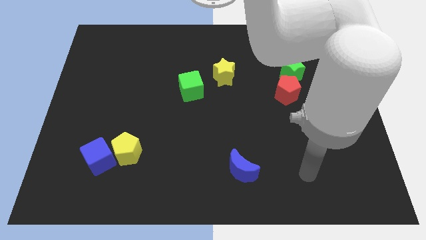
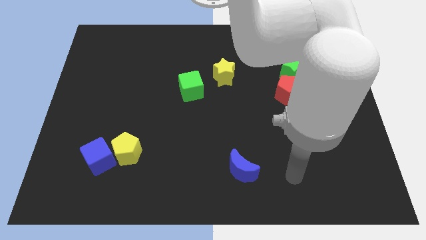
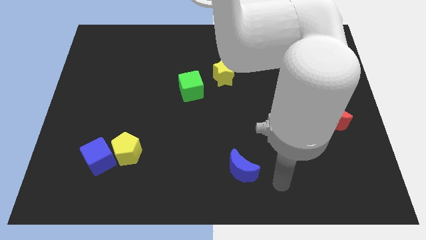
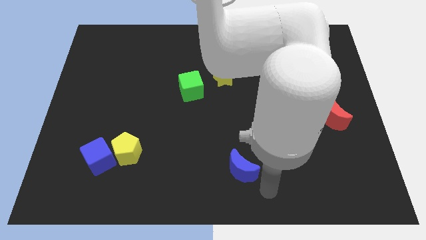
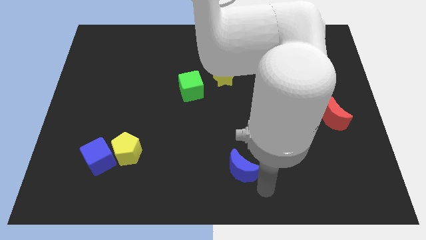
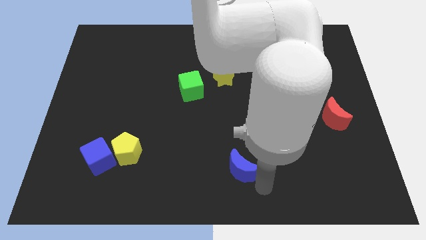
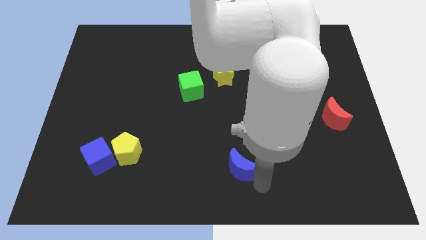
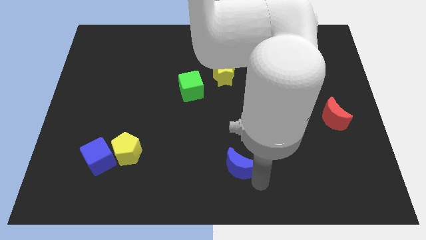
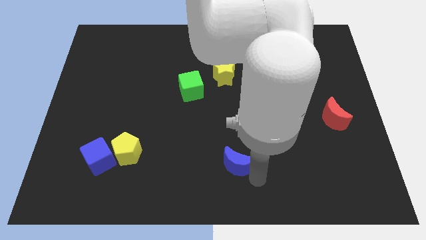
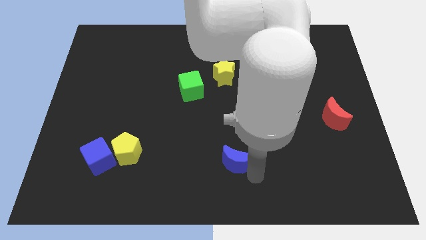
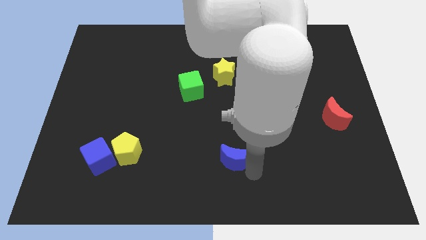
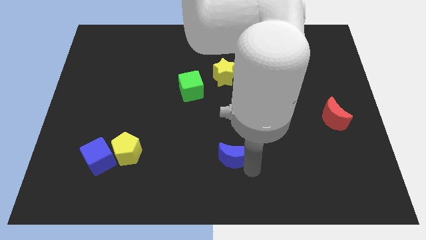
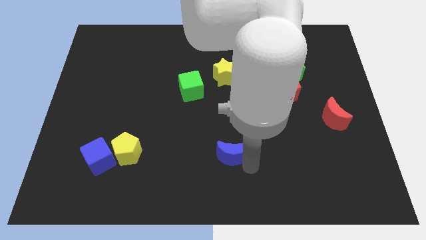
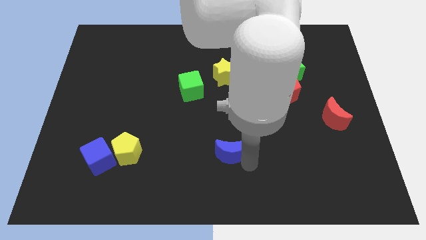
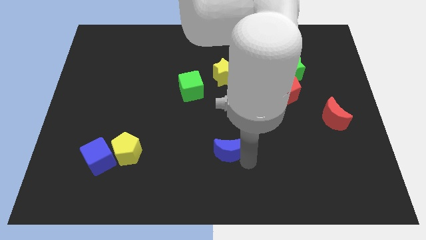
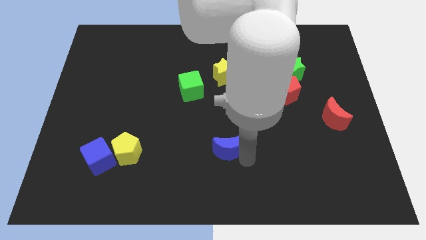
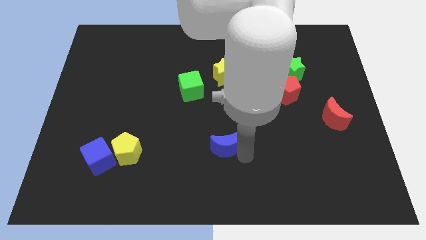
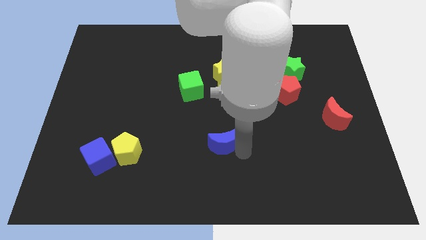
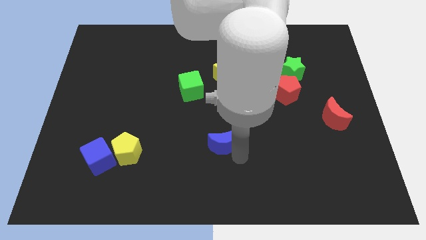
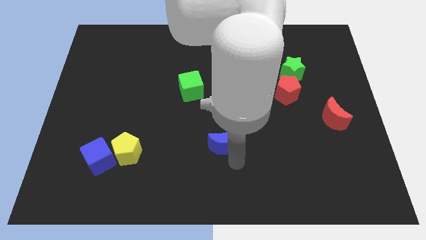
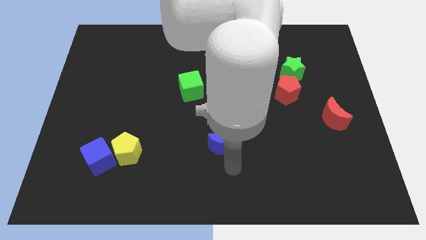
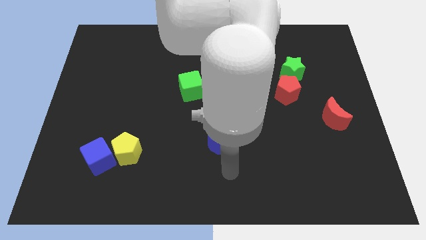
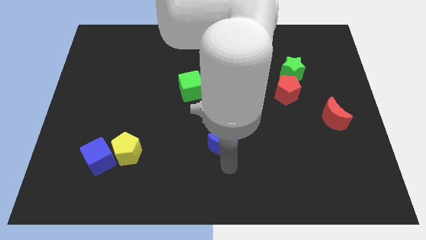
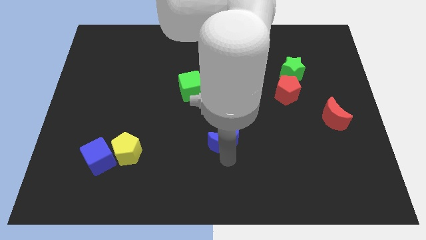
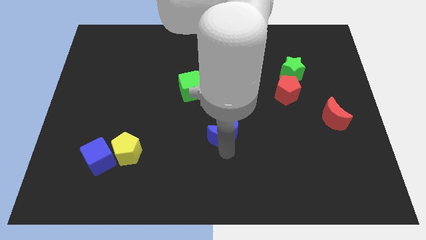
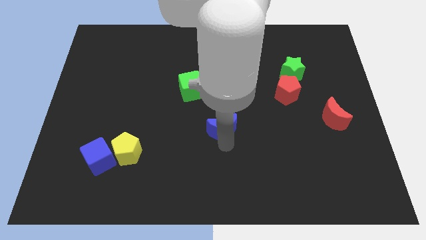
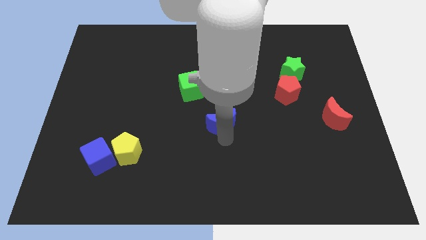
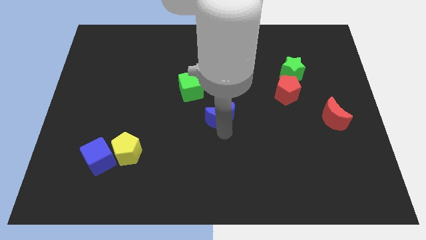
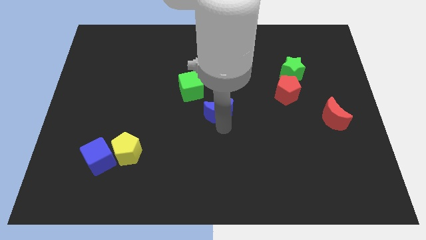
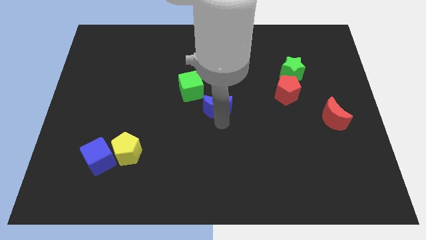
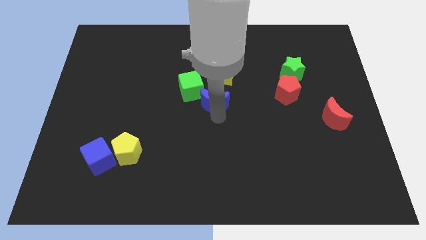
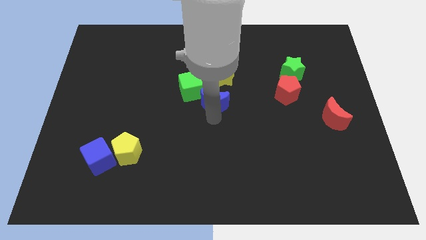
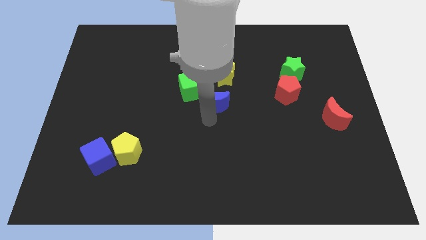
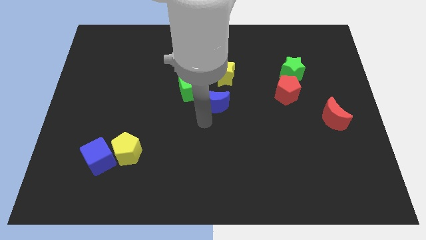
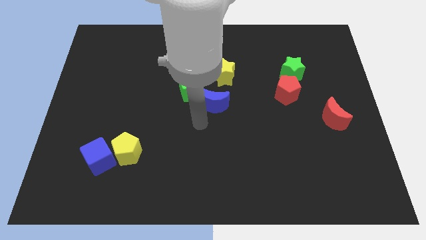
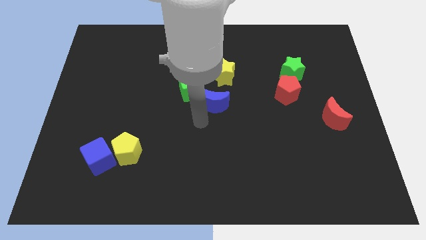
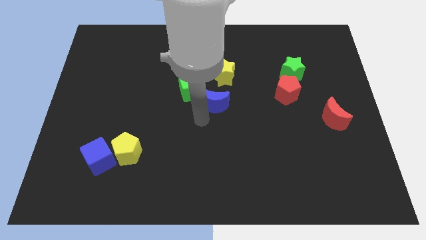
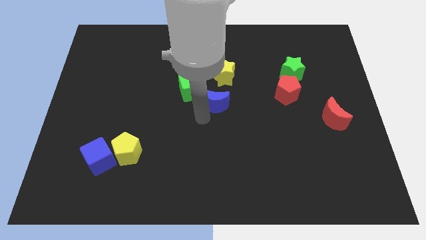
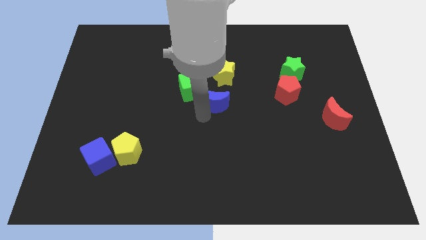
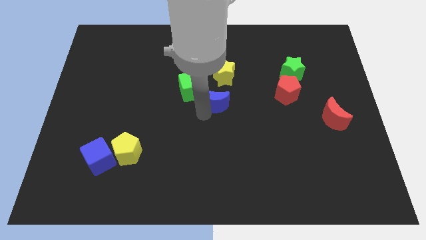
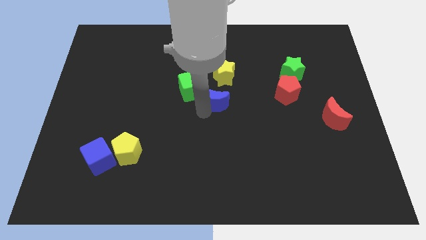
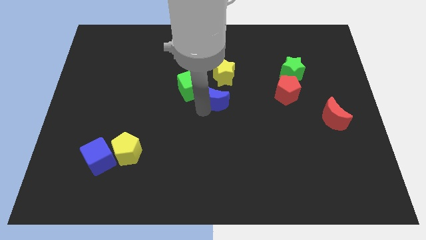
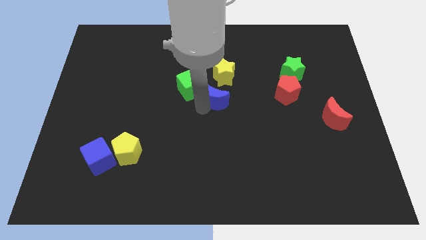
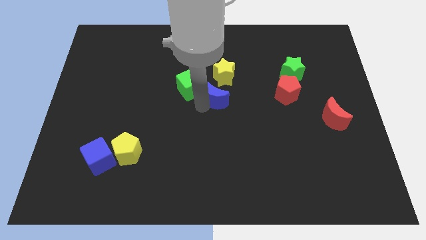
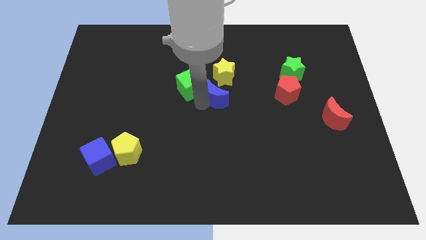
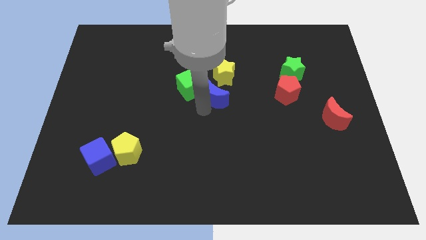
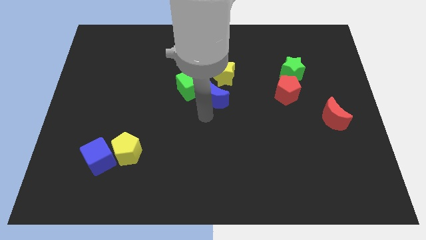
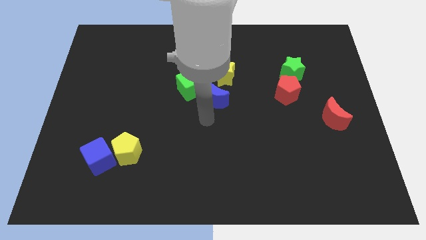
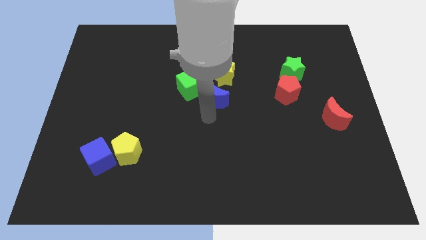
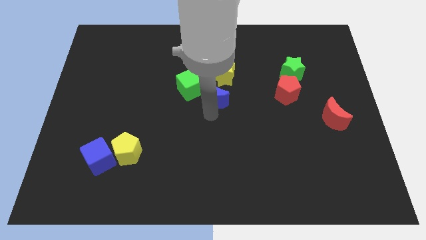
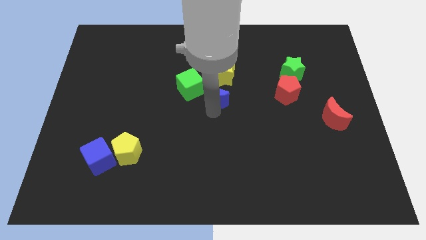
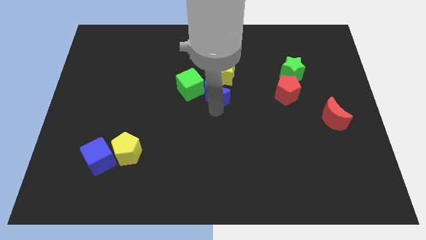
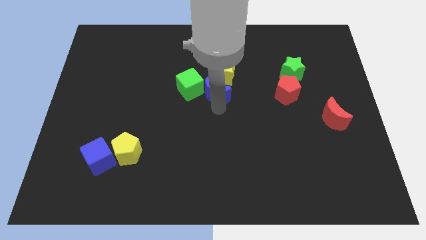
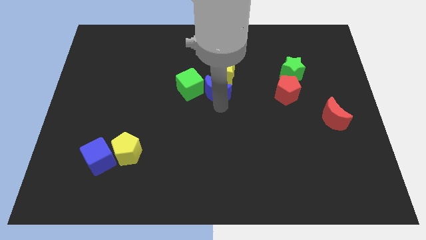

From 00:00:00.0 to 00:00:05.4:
put the blue moon next to the yellow star

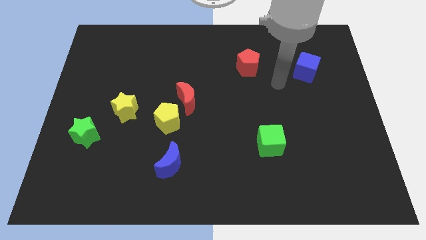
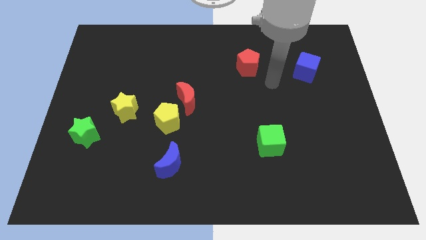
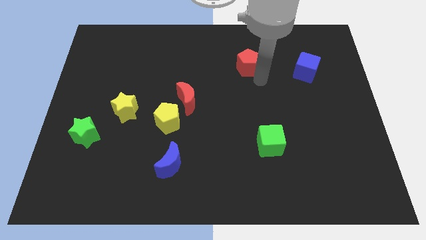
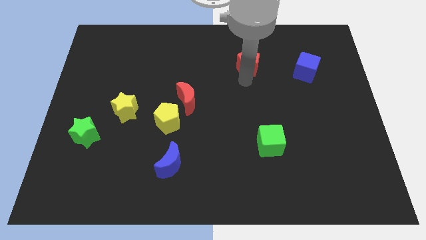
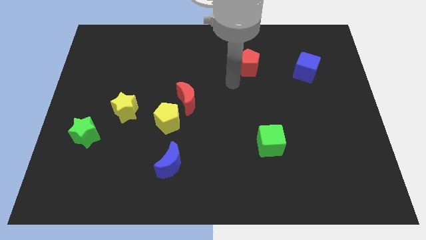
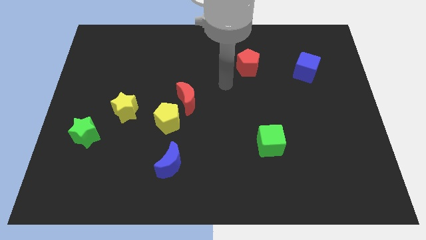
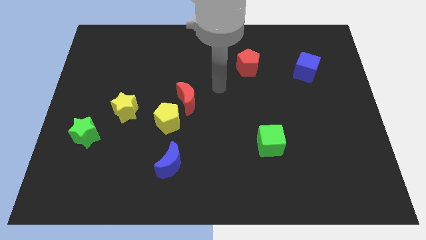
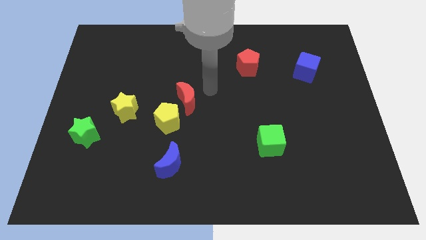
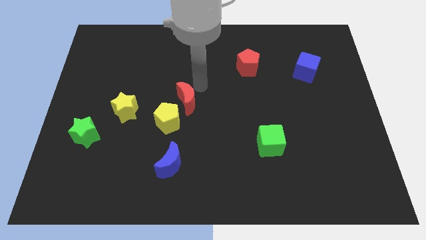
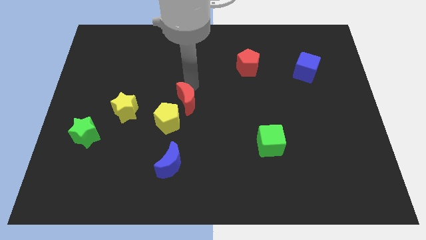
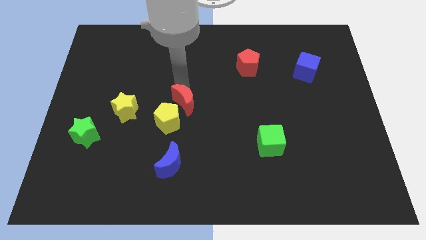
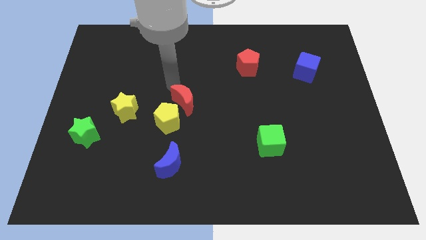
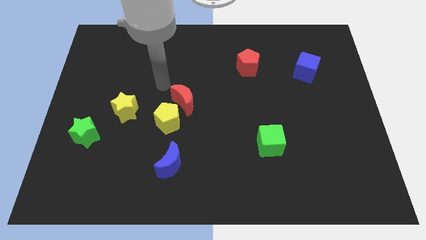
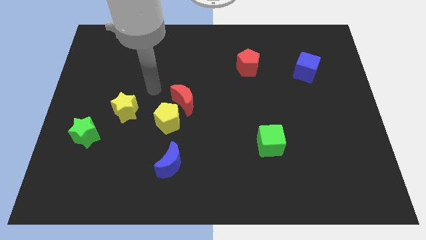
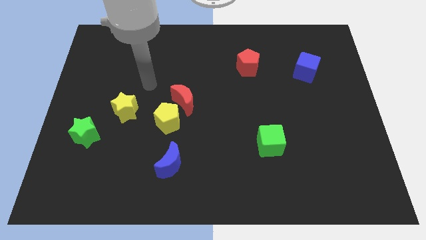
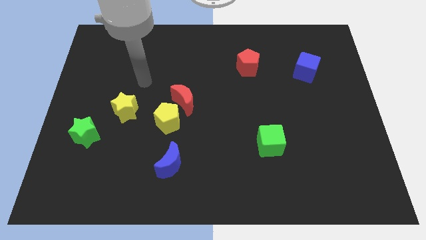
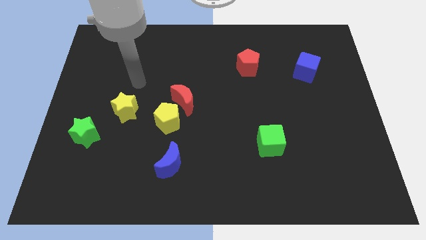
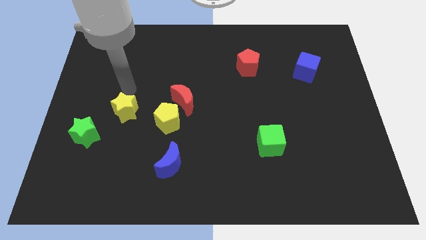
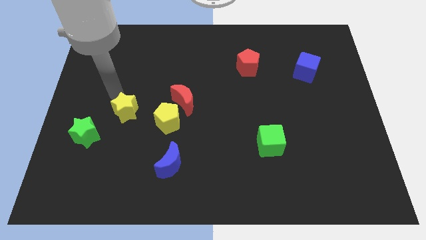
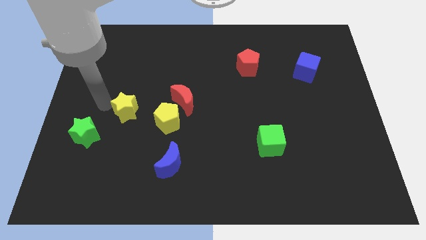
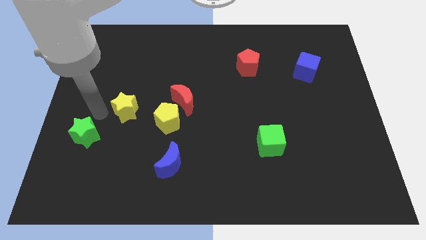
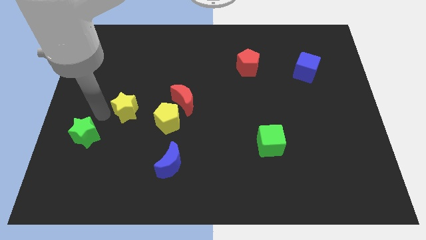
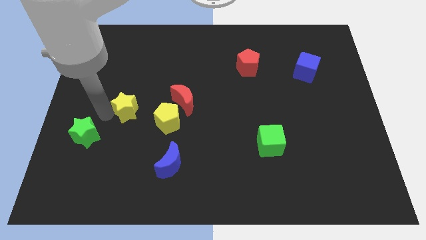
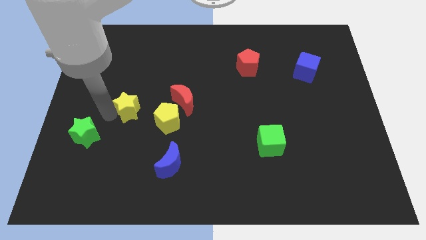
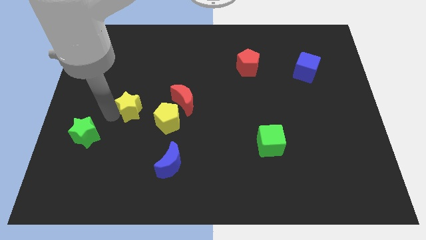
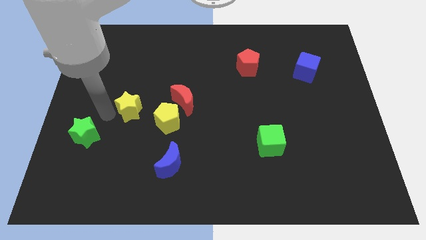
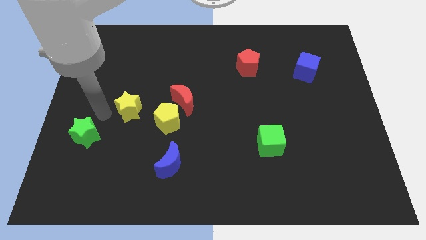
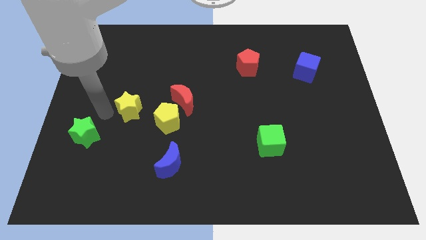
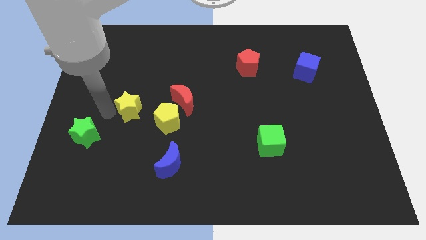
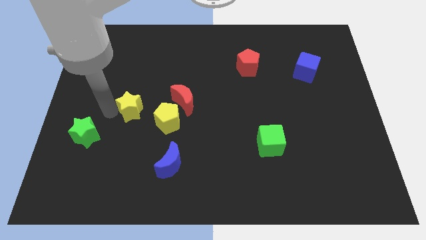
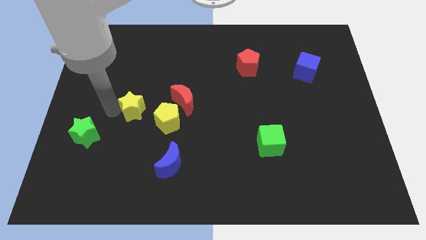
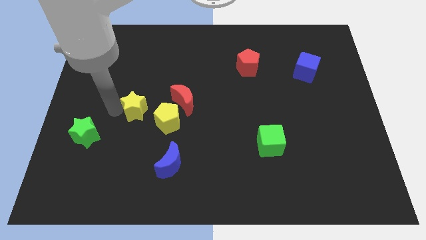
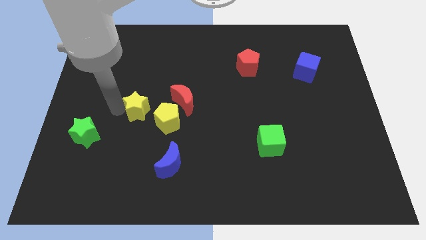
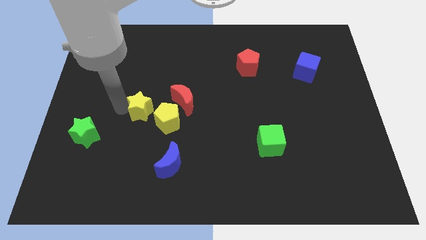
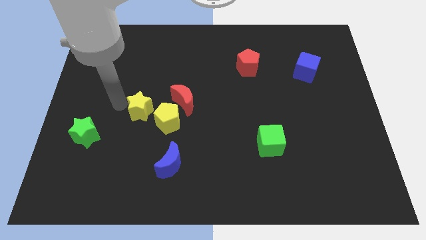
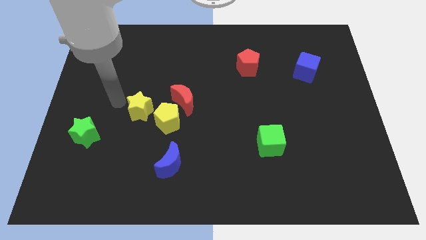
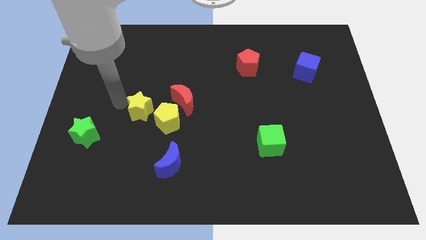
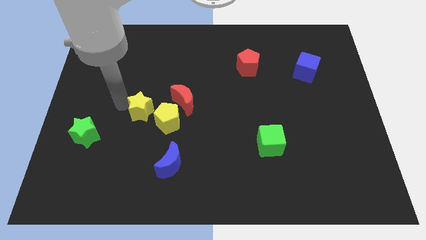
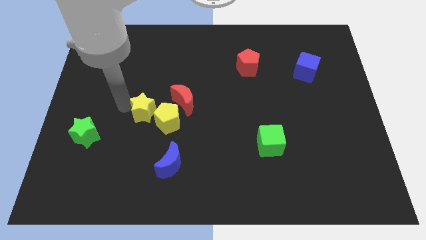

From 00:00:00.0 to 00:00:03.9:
move the yellow star towards the yellow pentagon
